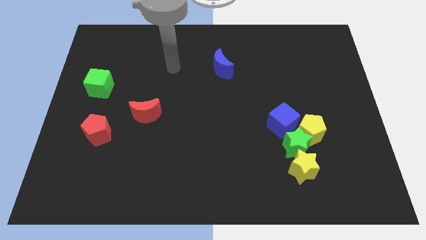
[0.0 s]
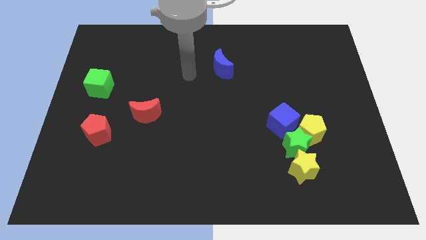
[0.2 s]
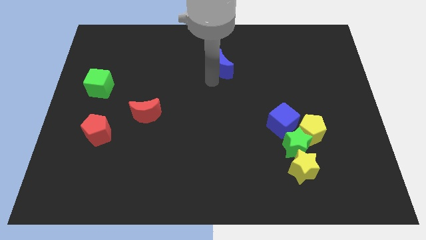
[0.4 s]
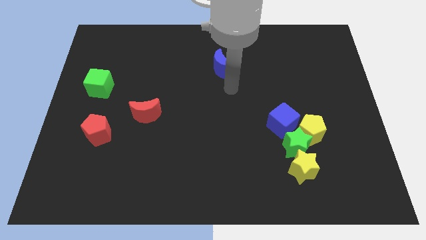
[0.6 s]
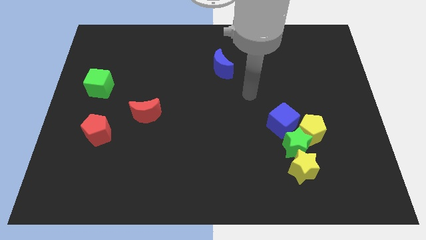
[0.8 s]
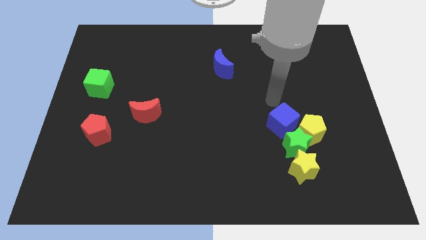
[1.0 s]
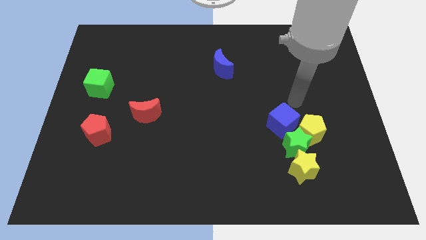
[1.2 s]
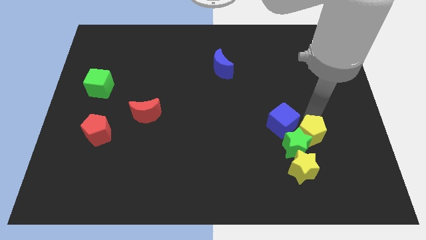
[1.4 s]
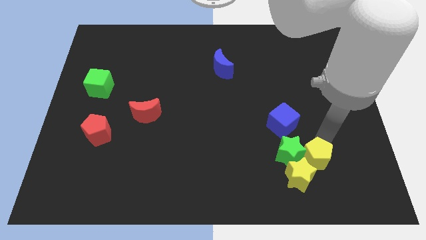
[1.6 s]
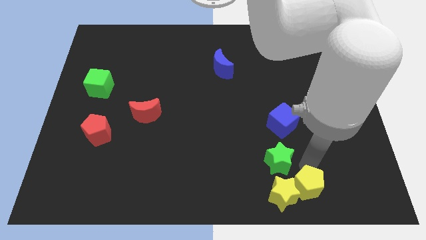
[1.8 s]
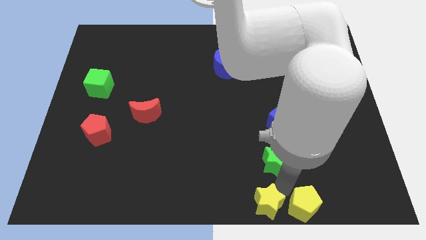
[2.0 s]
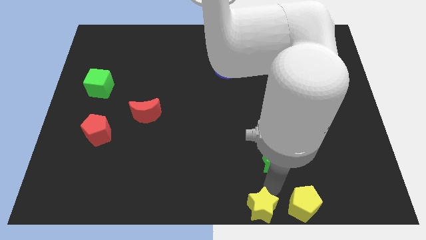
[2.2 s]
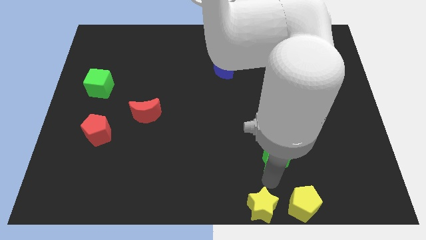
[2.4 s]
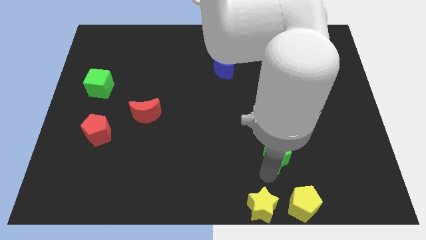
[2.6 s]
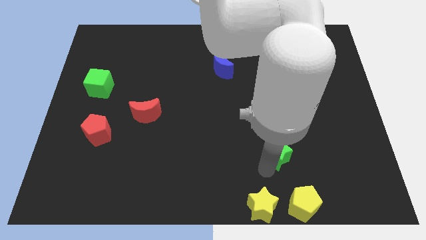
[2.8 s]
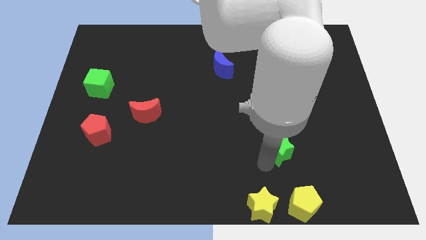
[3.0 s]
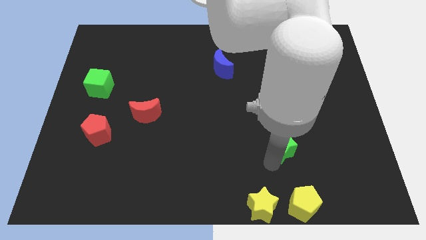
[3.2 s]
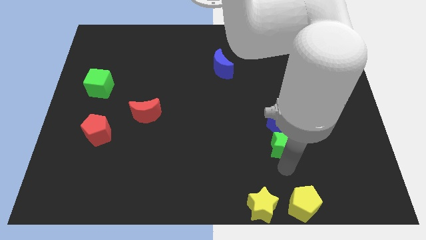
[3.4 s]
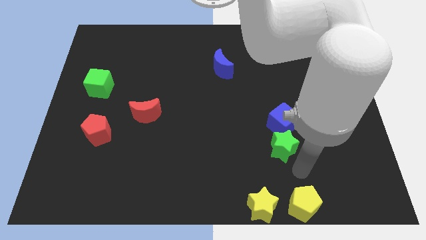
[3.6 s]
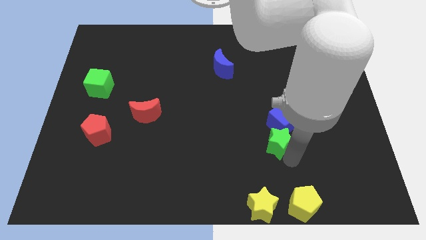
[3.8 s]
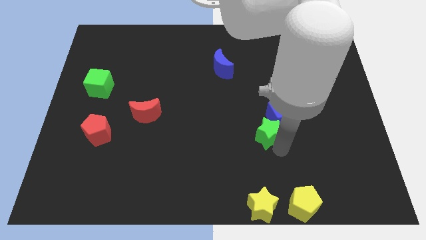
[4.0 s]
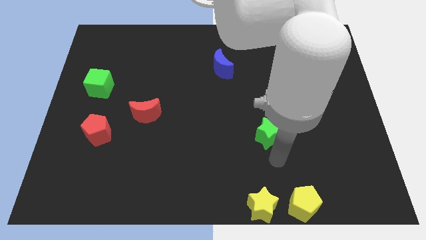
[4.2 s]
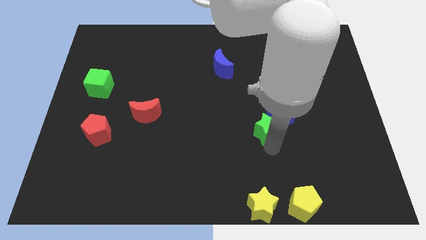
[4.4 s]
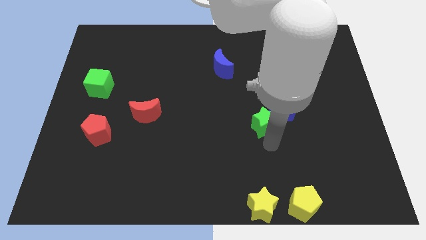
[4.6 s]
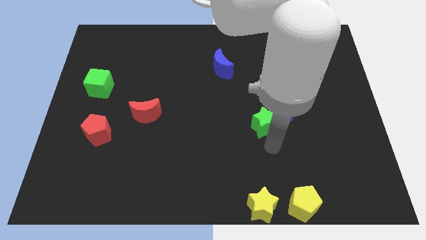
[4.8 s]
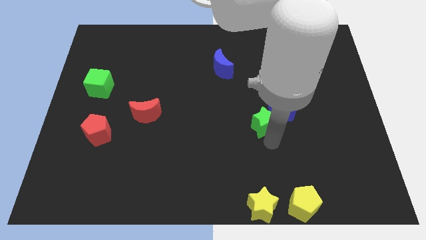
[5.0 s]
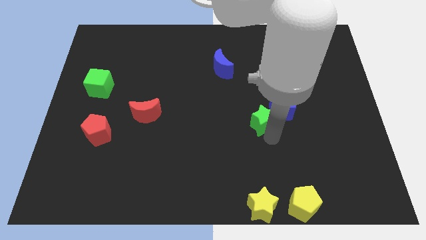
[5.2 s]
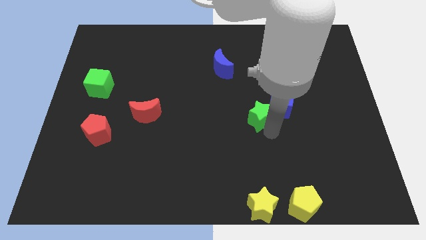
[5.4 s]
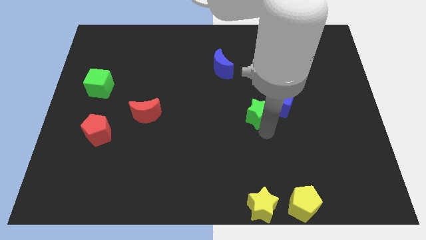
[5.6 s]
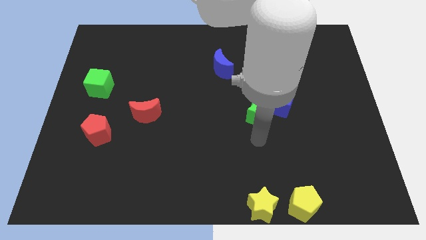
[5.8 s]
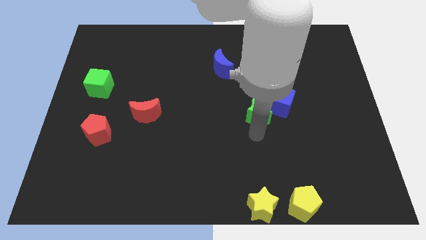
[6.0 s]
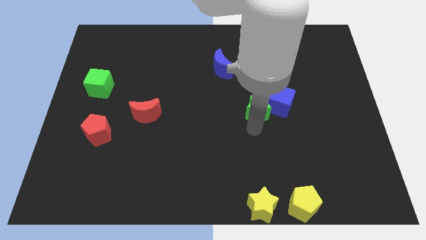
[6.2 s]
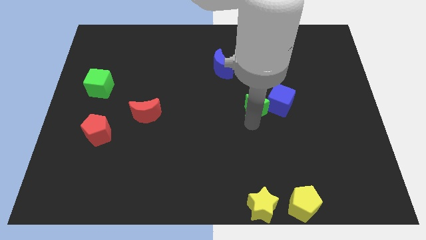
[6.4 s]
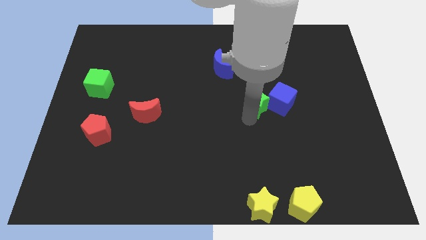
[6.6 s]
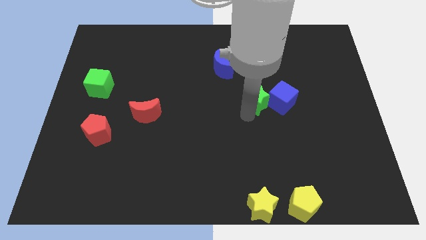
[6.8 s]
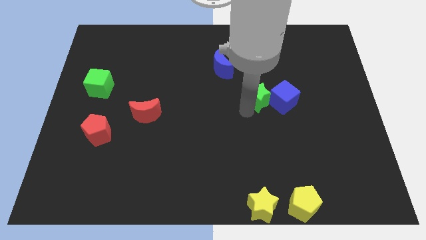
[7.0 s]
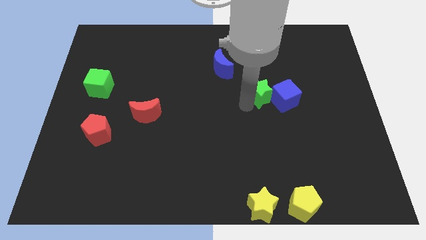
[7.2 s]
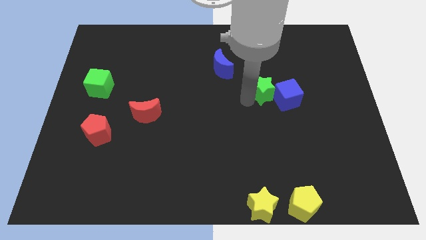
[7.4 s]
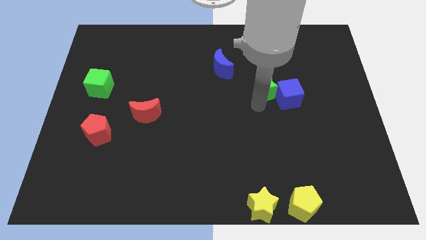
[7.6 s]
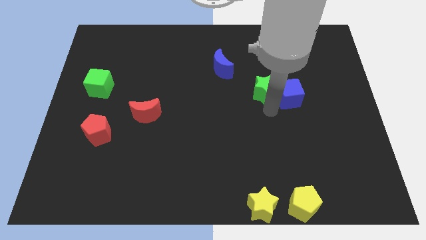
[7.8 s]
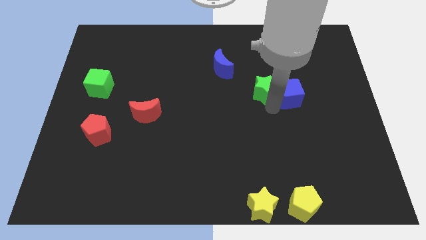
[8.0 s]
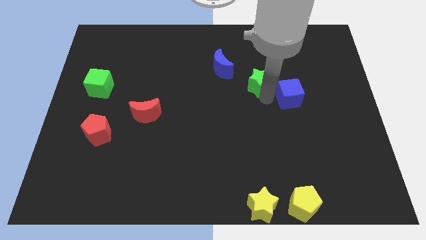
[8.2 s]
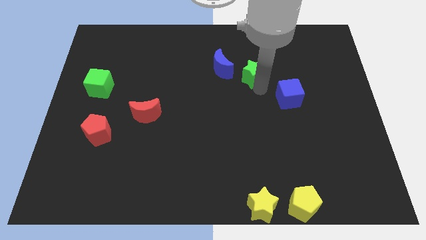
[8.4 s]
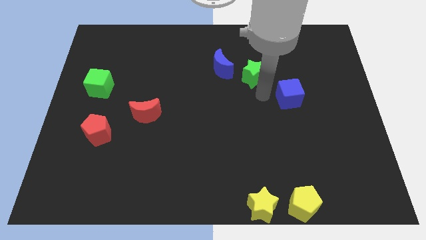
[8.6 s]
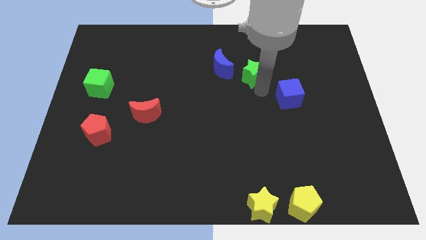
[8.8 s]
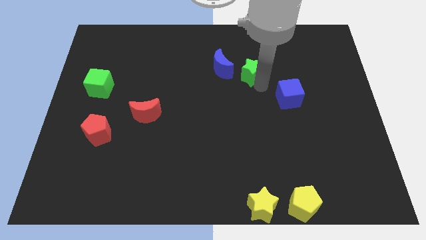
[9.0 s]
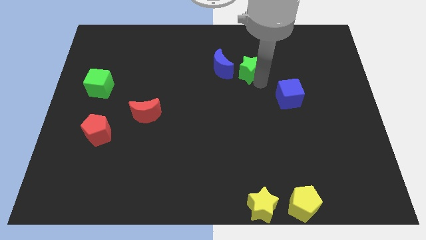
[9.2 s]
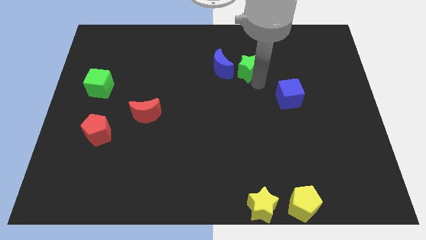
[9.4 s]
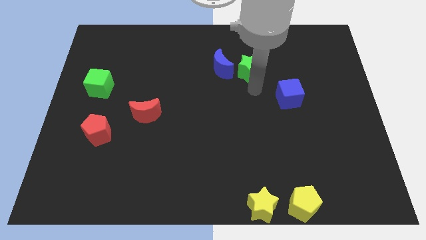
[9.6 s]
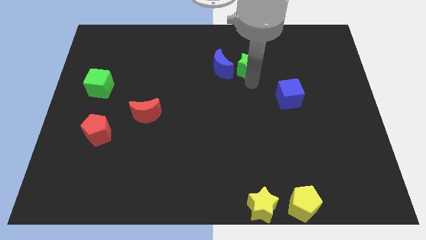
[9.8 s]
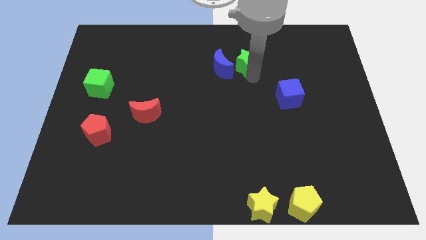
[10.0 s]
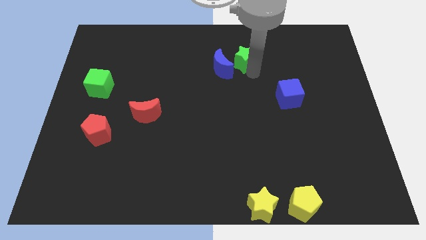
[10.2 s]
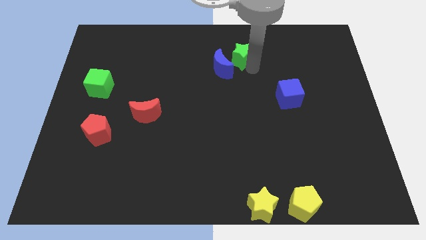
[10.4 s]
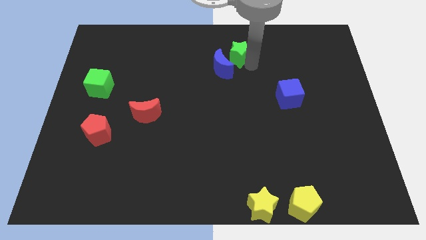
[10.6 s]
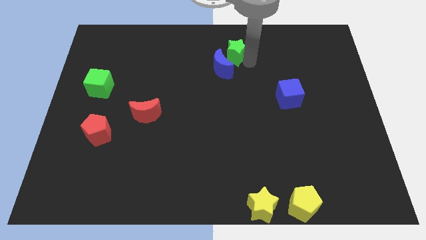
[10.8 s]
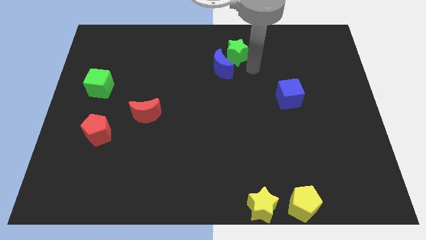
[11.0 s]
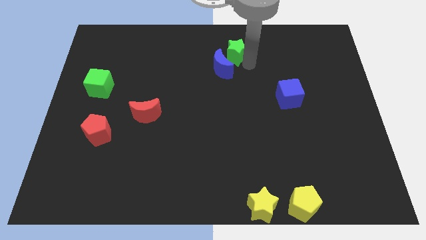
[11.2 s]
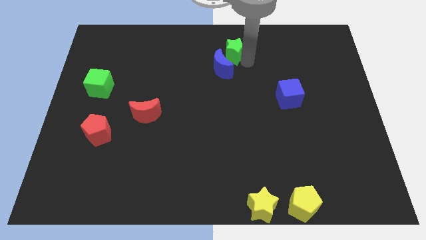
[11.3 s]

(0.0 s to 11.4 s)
slide the green star to the top

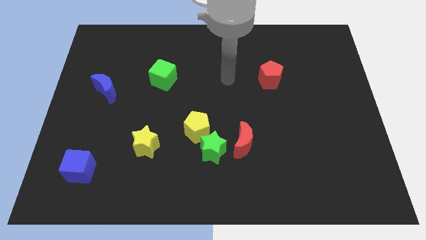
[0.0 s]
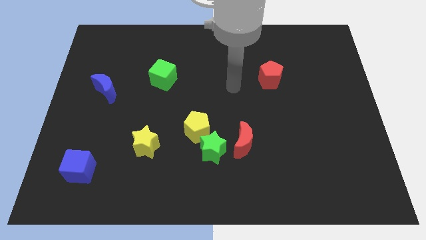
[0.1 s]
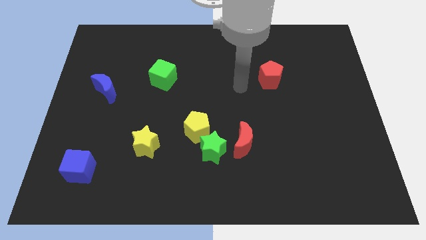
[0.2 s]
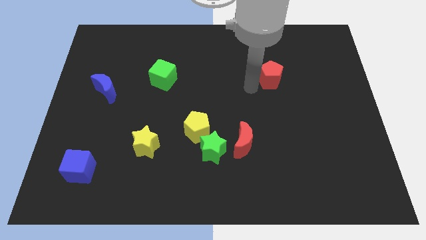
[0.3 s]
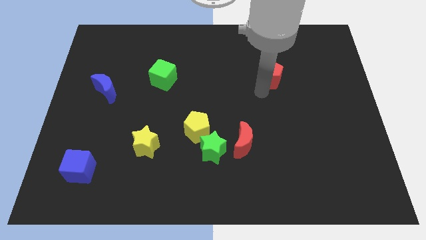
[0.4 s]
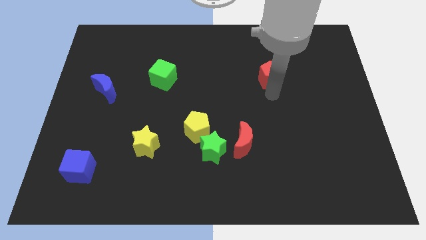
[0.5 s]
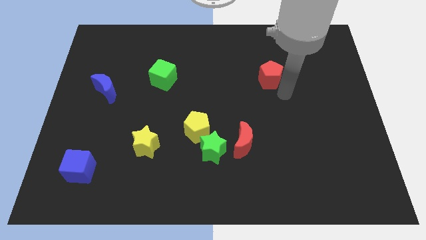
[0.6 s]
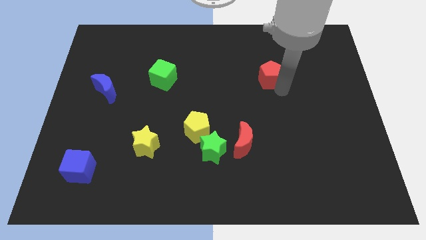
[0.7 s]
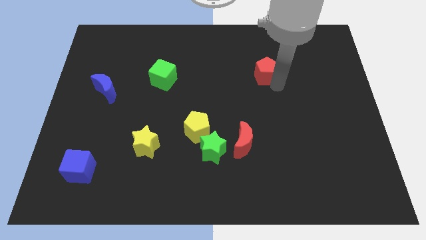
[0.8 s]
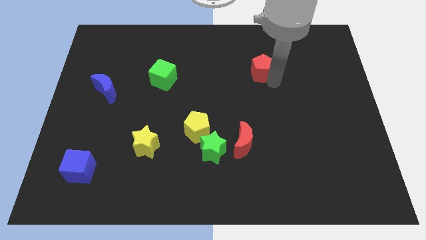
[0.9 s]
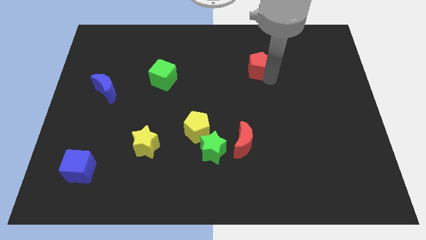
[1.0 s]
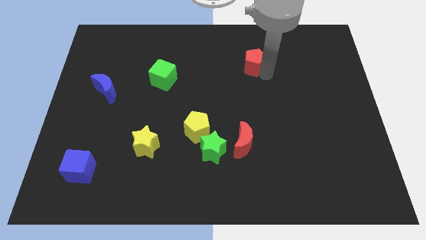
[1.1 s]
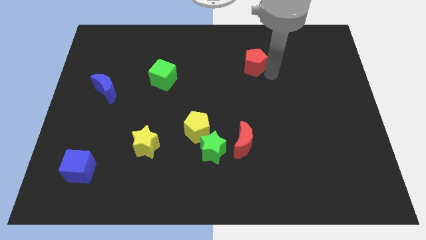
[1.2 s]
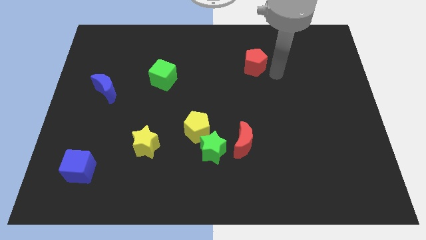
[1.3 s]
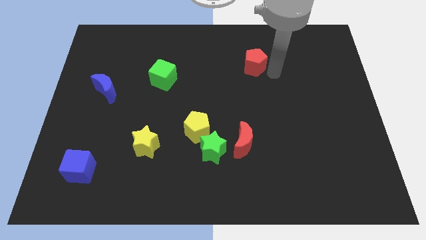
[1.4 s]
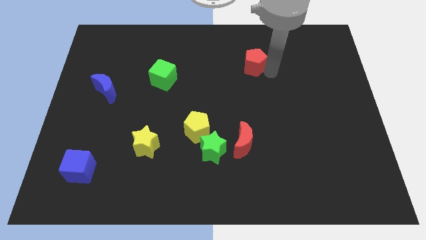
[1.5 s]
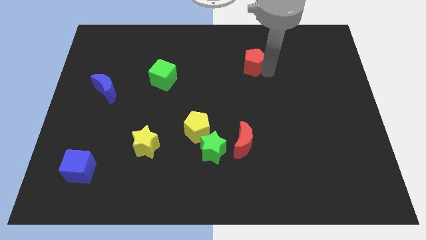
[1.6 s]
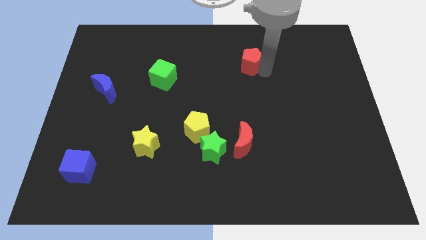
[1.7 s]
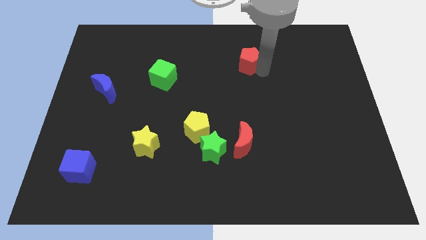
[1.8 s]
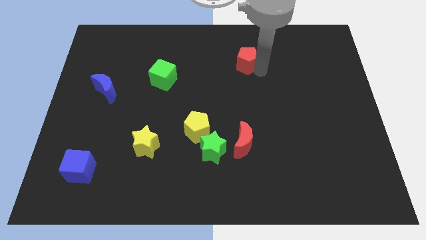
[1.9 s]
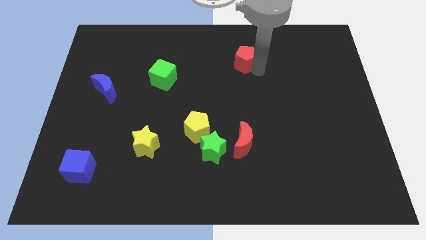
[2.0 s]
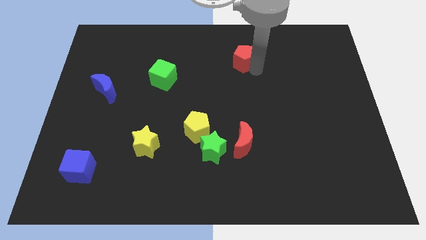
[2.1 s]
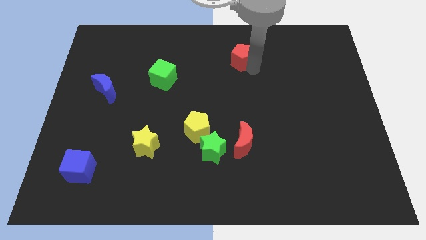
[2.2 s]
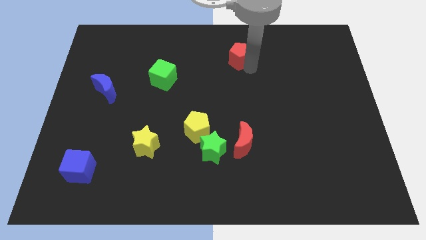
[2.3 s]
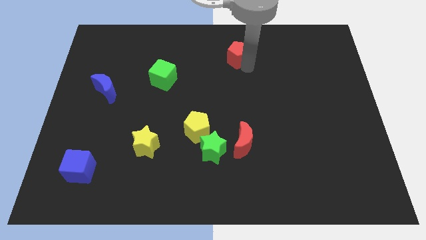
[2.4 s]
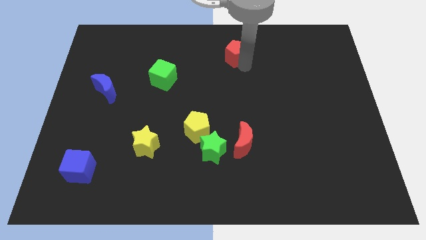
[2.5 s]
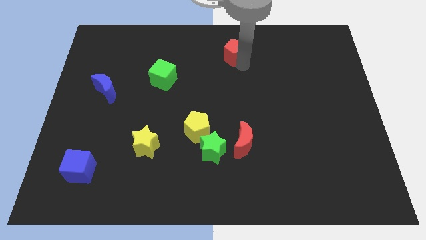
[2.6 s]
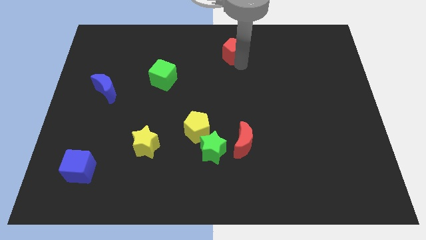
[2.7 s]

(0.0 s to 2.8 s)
put the red pentagon to the top
